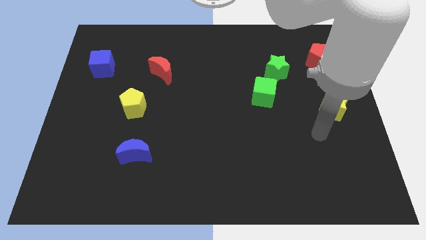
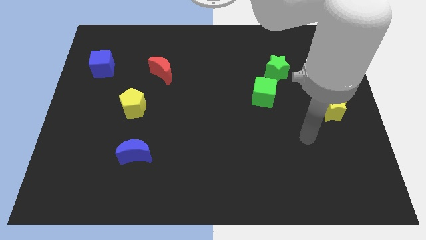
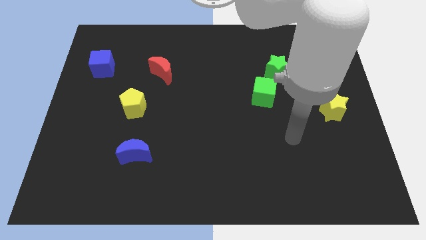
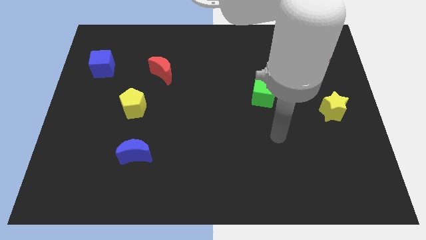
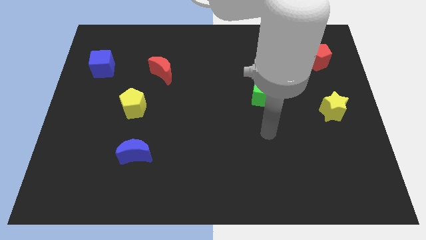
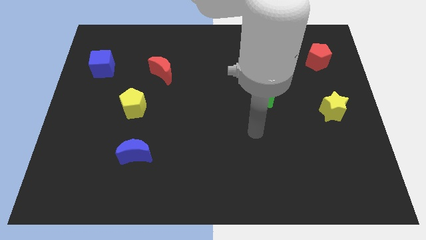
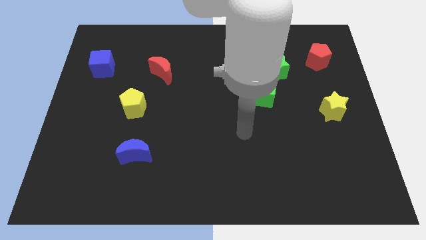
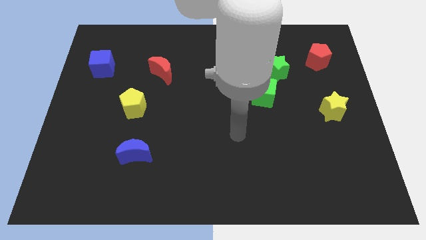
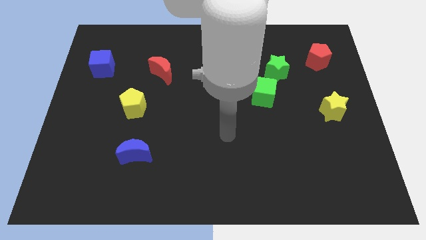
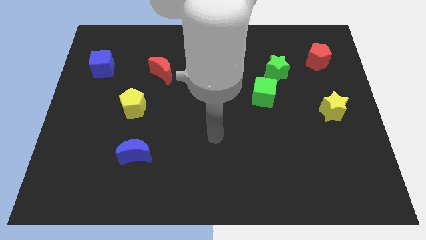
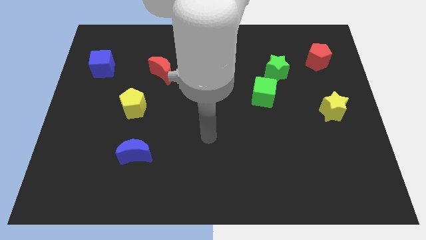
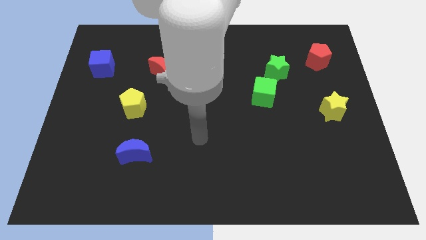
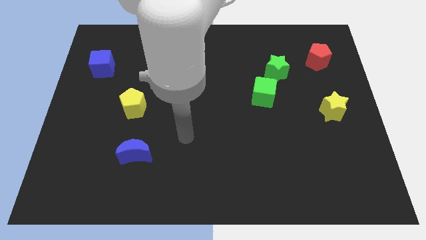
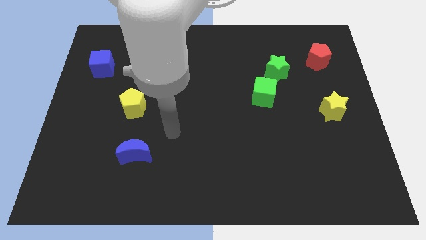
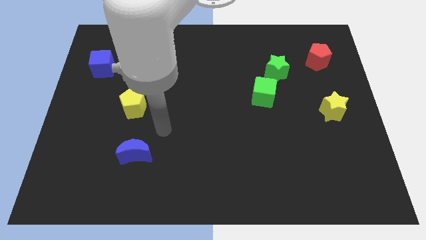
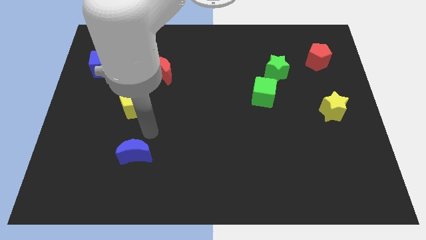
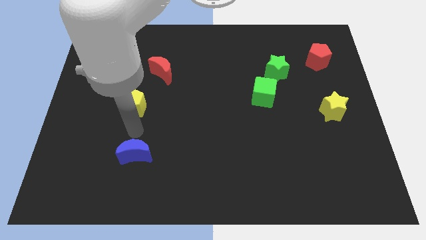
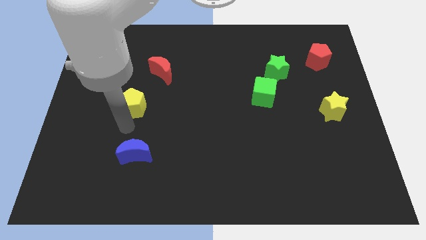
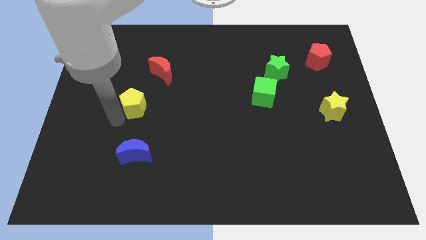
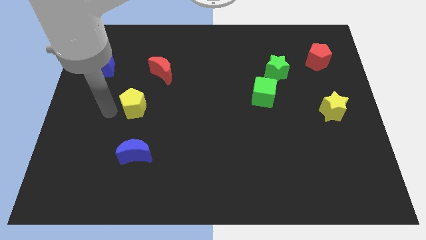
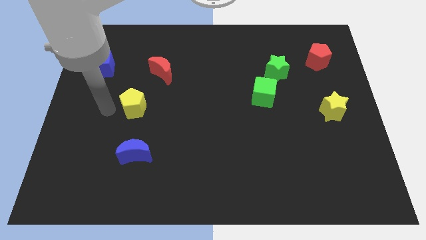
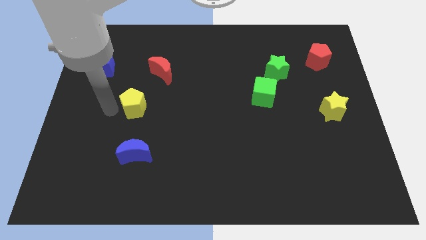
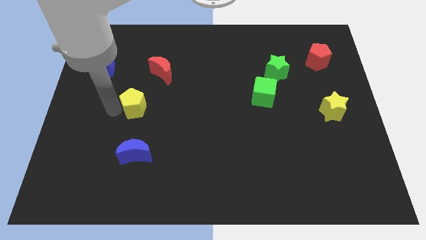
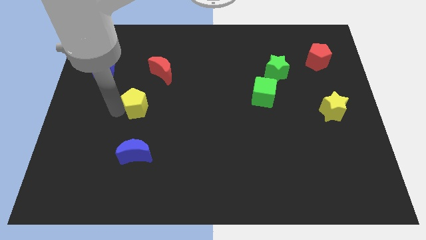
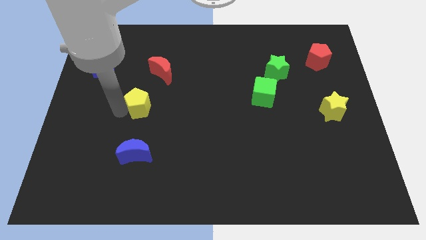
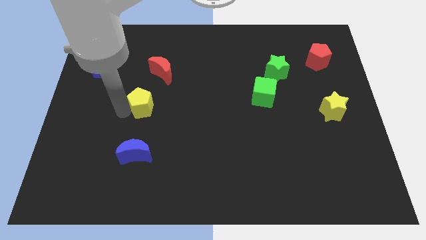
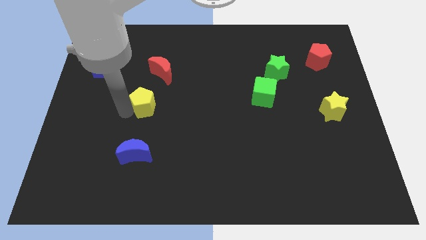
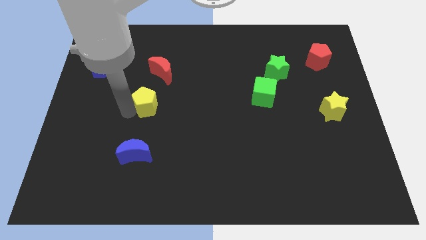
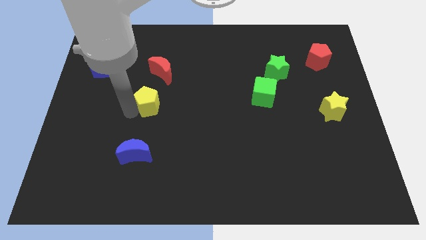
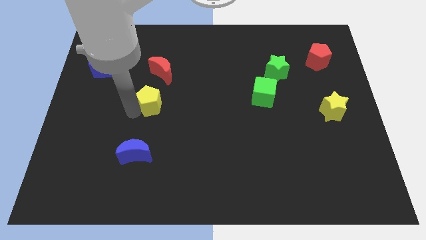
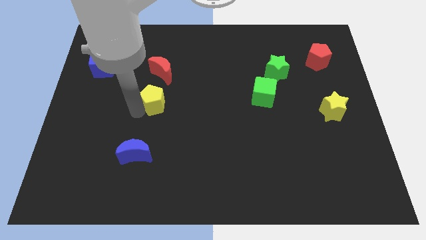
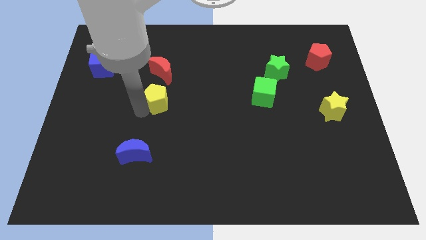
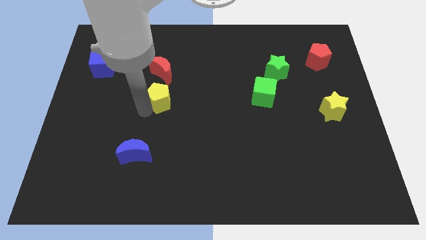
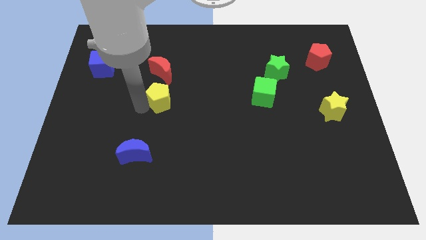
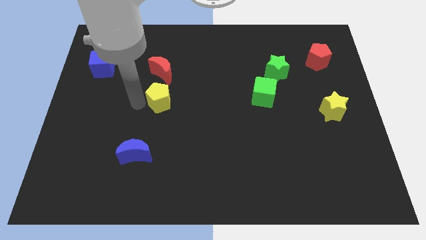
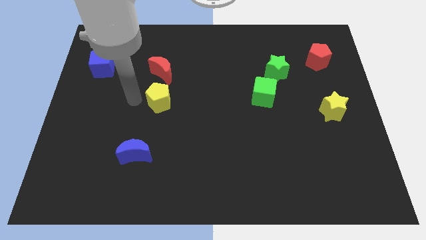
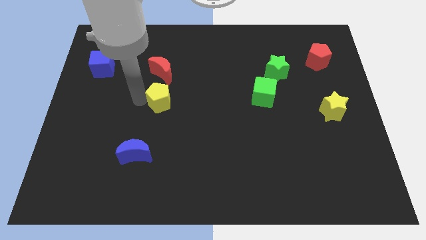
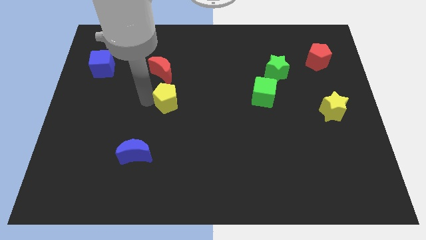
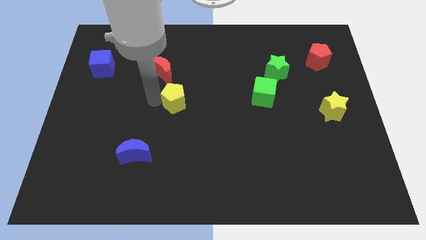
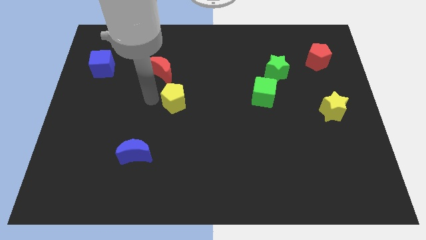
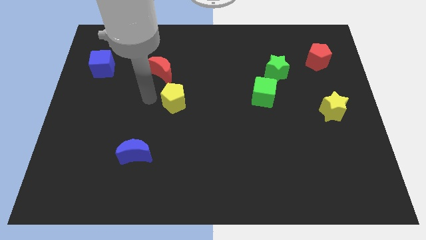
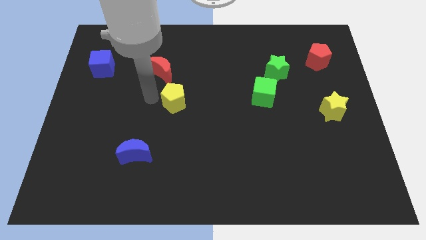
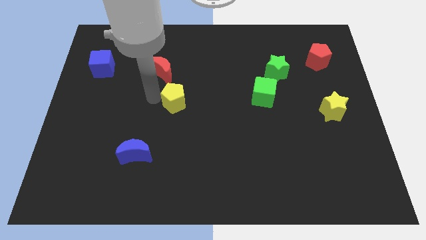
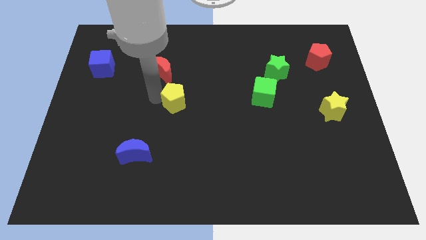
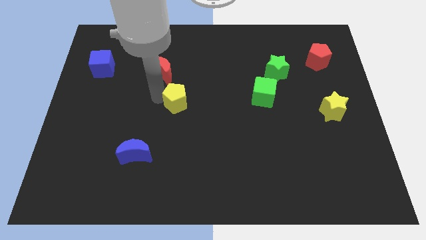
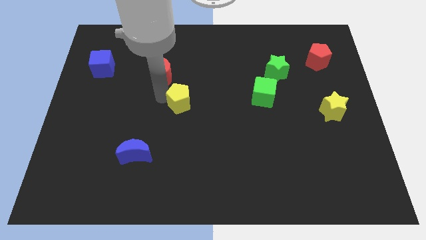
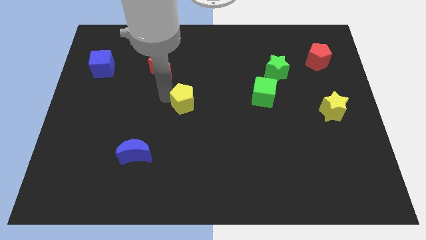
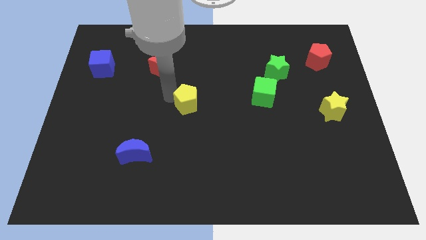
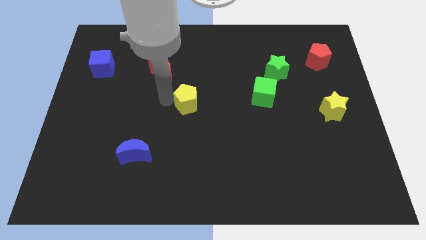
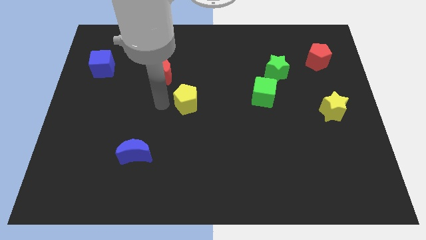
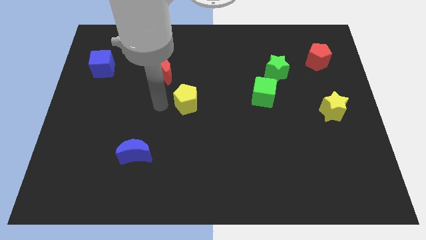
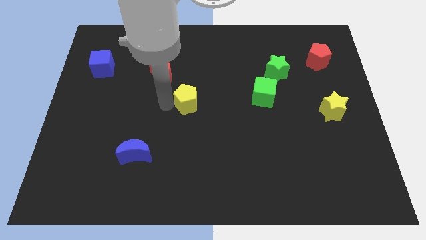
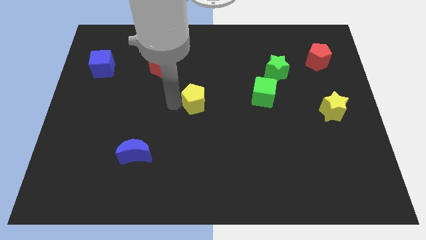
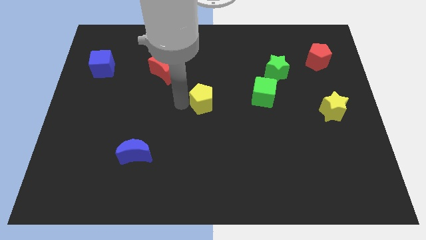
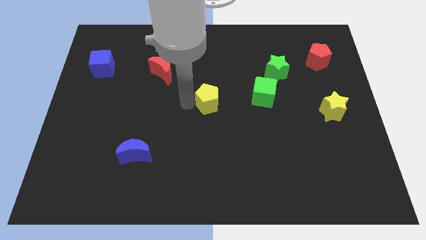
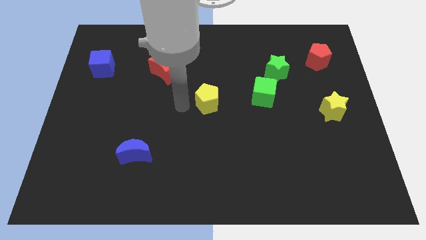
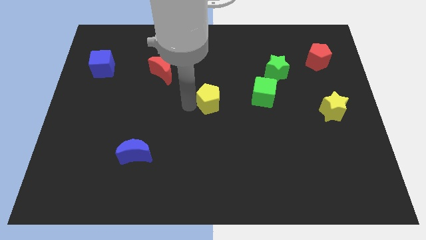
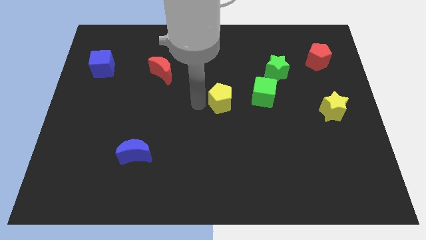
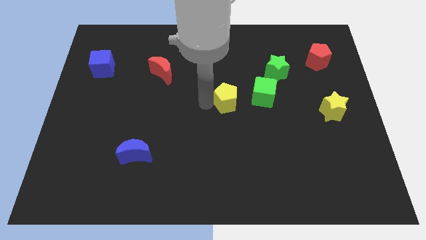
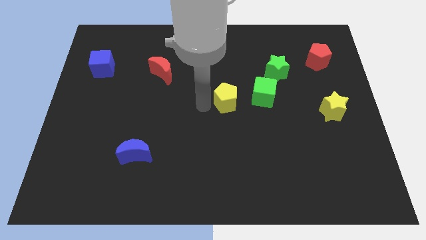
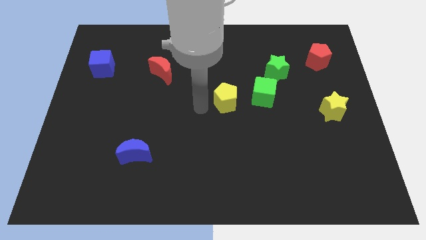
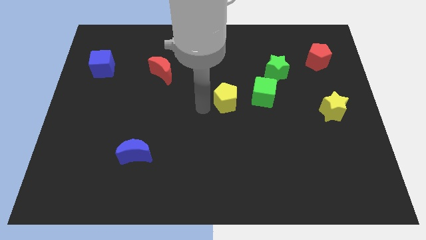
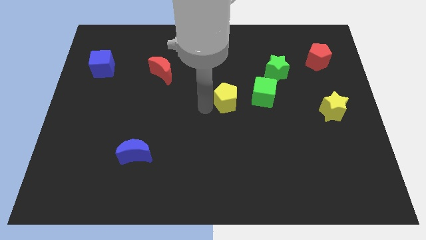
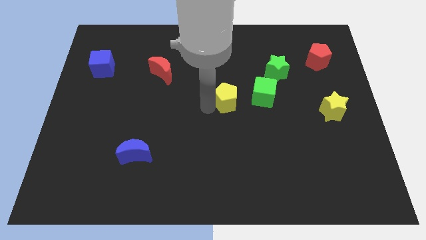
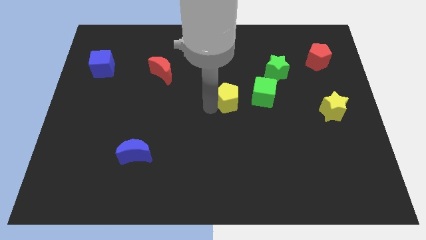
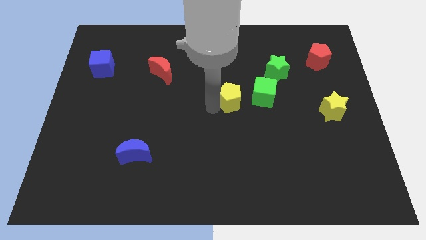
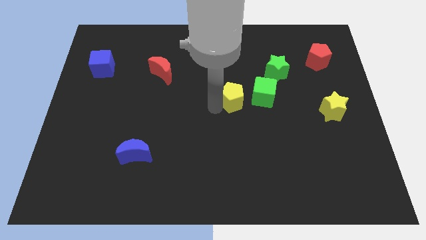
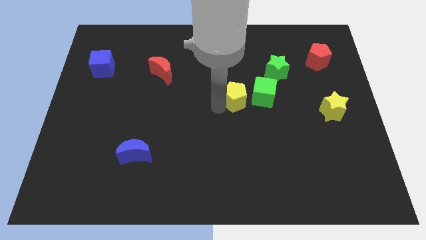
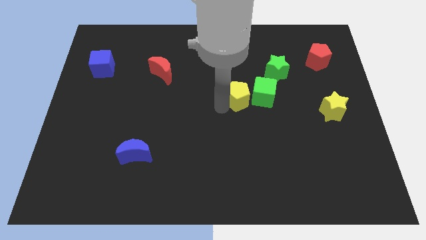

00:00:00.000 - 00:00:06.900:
push the yellow pentagon towards the green cube

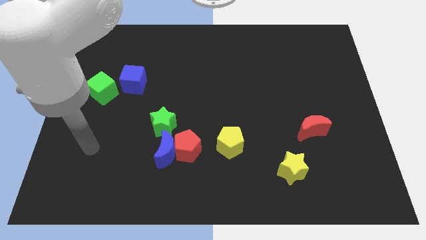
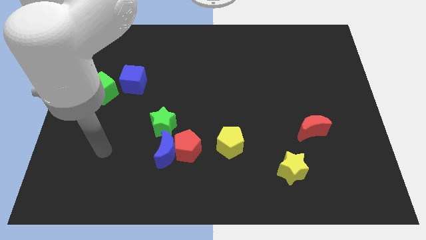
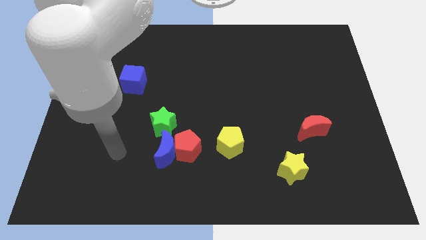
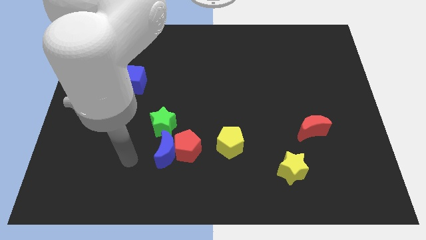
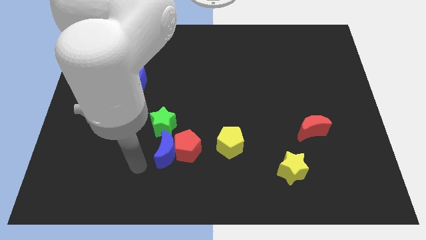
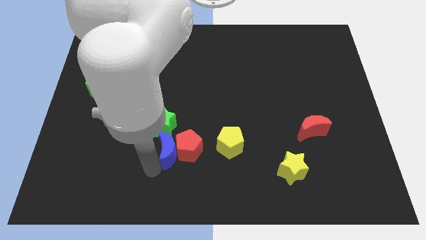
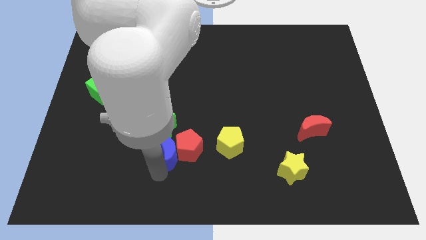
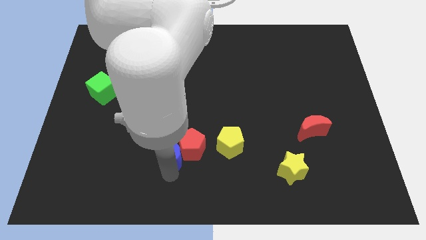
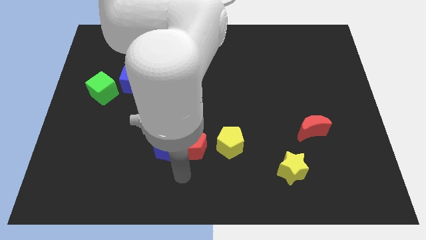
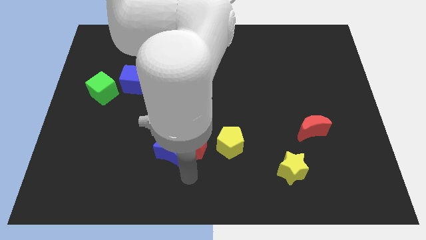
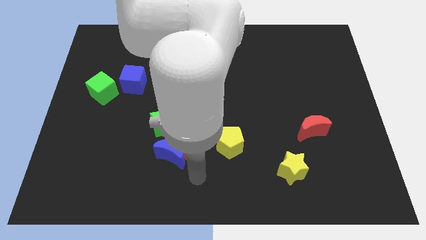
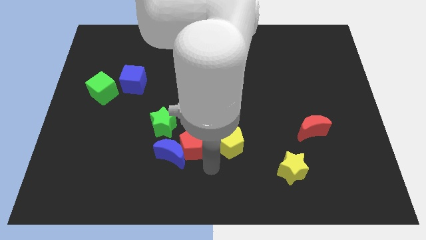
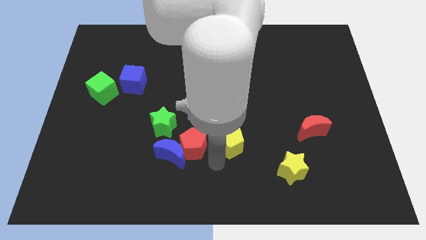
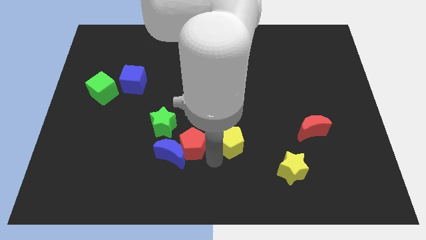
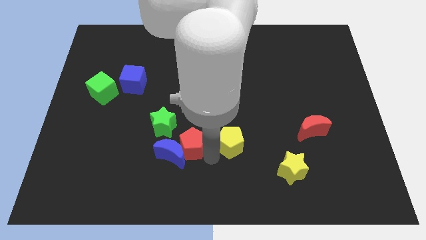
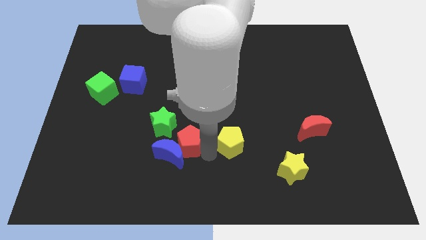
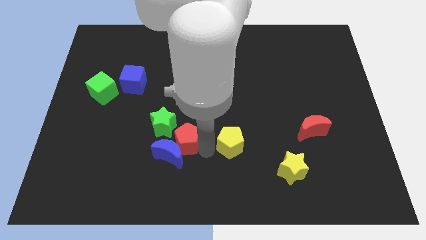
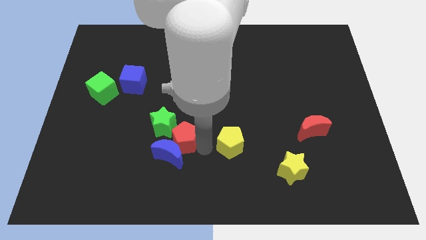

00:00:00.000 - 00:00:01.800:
put the red pentagon close to the green star
